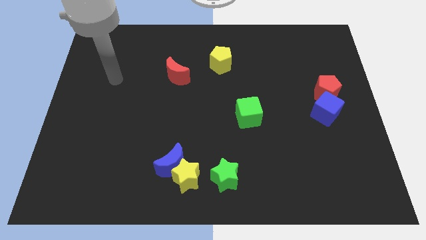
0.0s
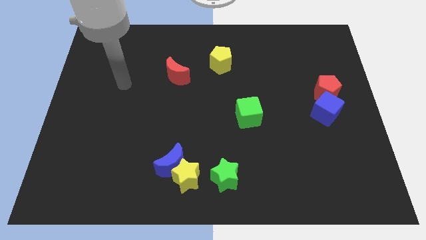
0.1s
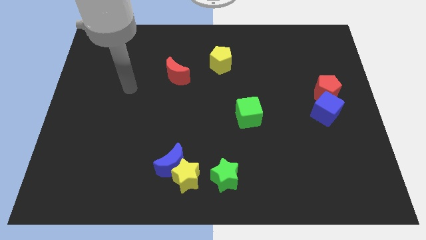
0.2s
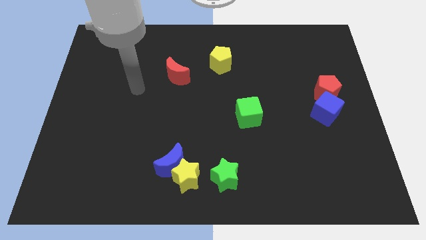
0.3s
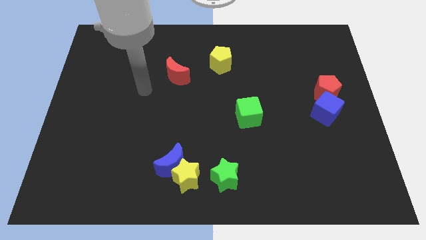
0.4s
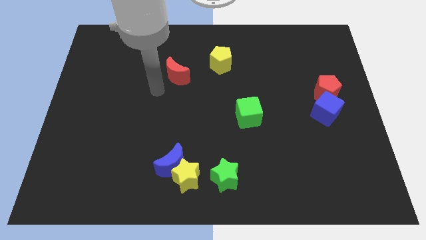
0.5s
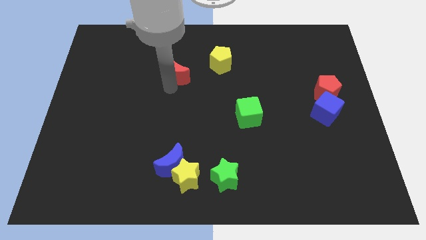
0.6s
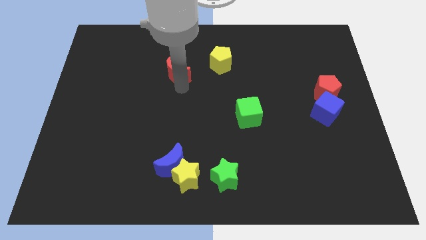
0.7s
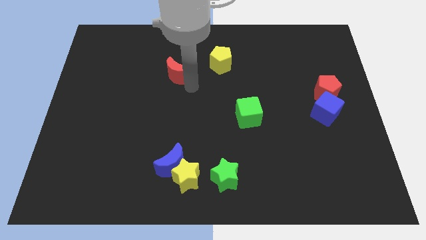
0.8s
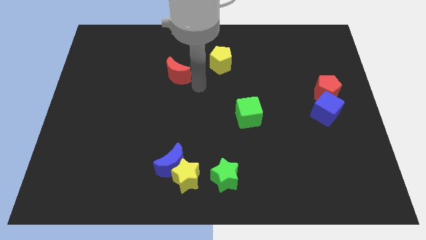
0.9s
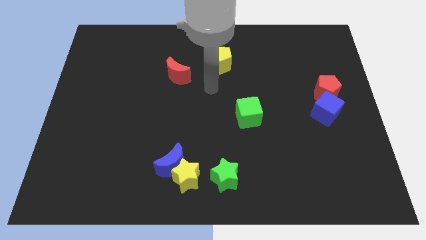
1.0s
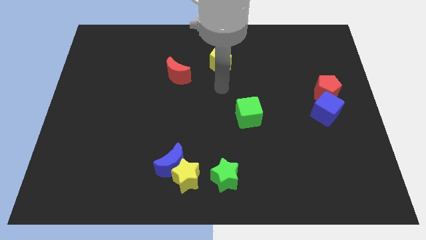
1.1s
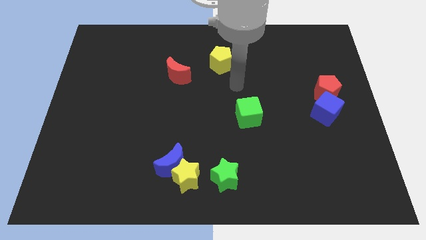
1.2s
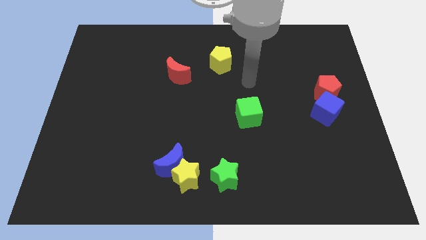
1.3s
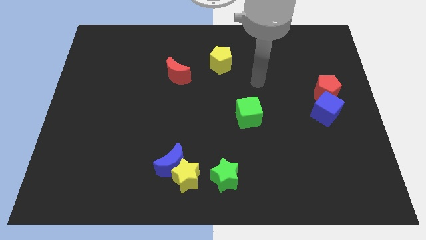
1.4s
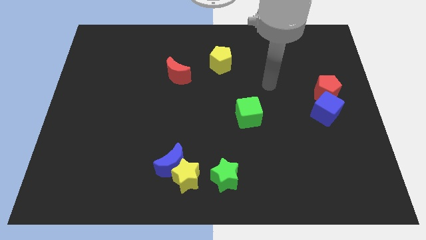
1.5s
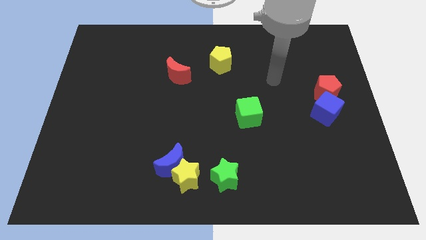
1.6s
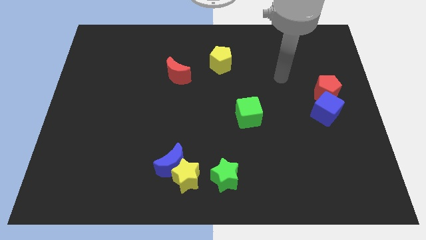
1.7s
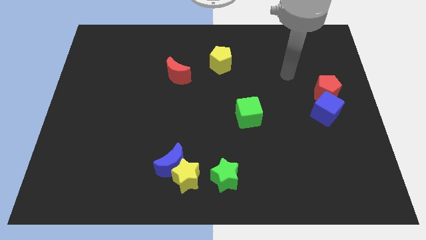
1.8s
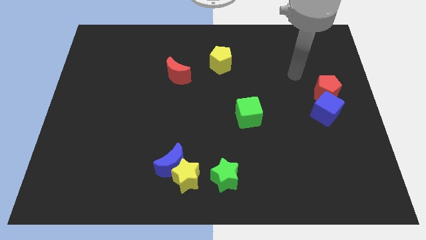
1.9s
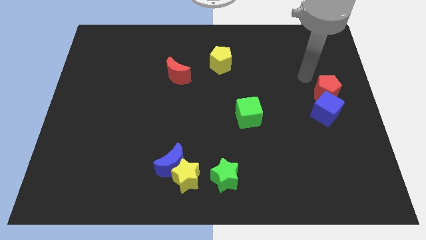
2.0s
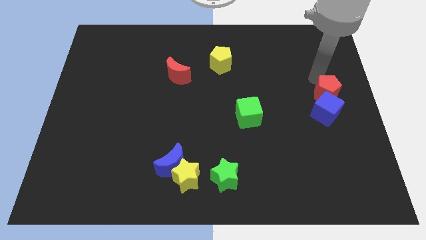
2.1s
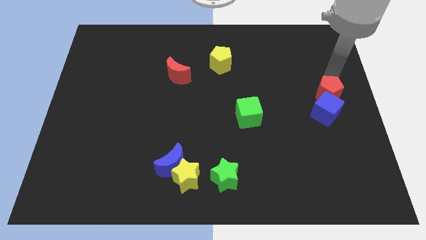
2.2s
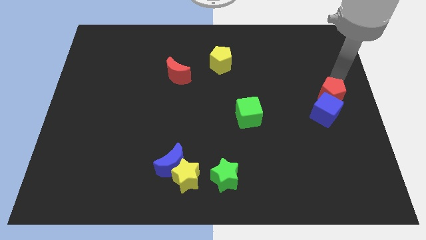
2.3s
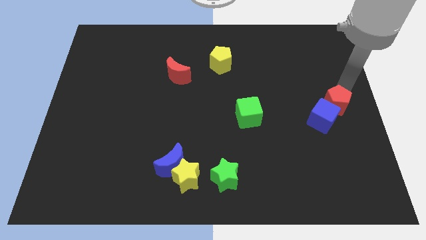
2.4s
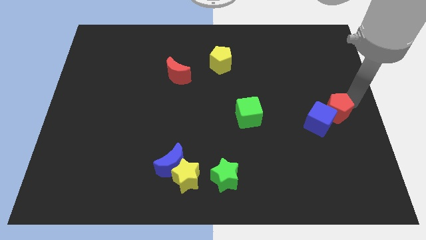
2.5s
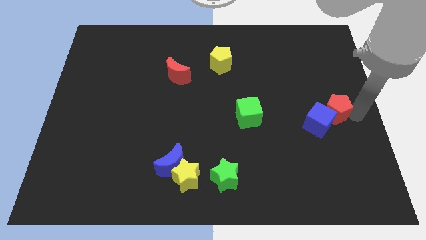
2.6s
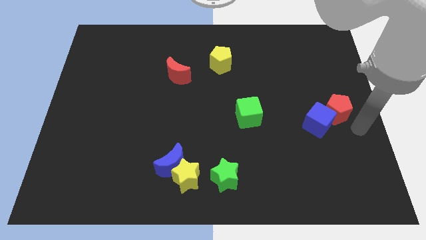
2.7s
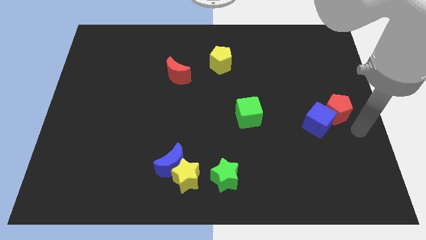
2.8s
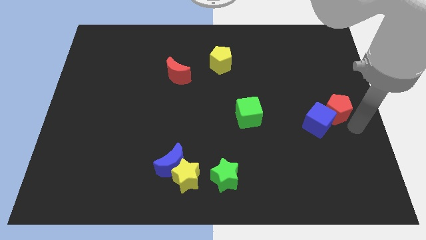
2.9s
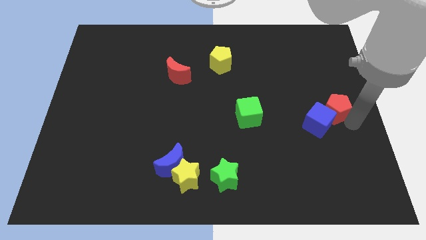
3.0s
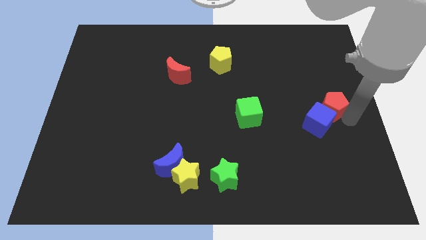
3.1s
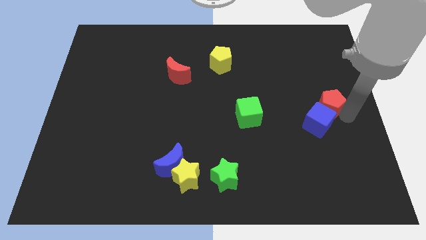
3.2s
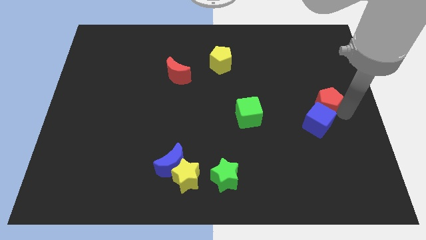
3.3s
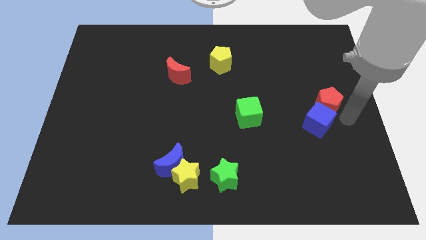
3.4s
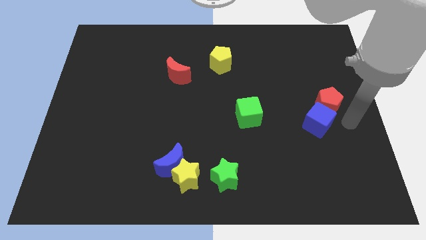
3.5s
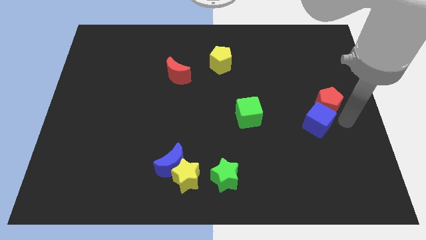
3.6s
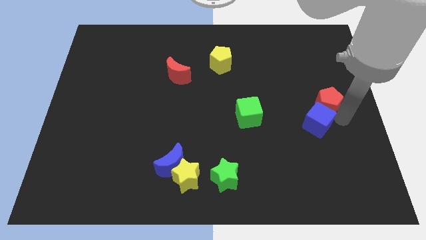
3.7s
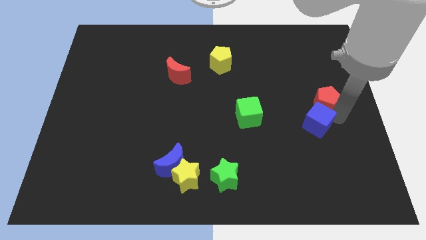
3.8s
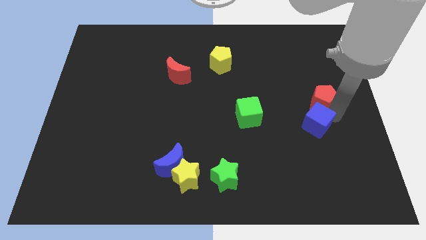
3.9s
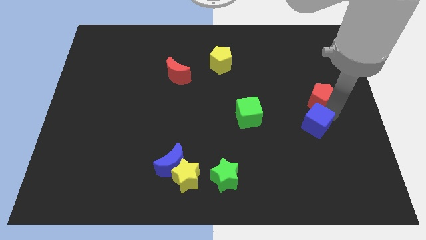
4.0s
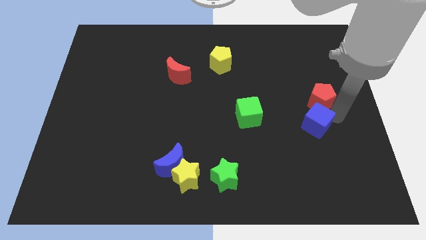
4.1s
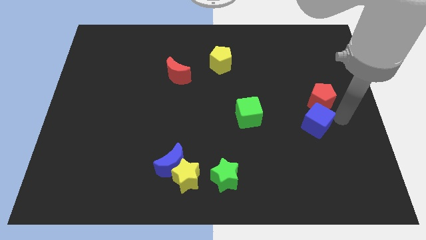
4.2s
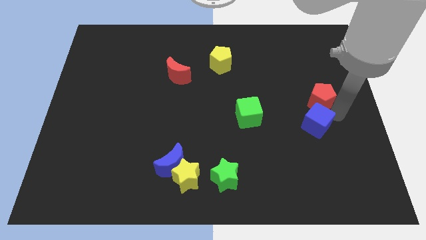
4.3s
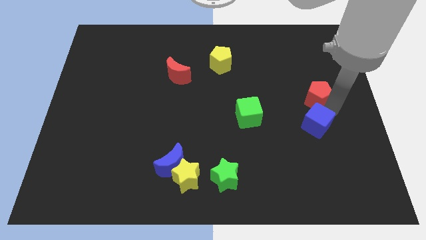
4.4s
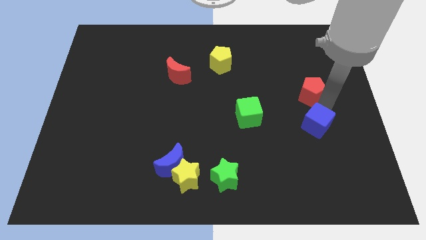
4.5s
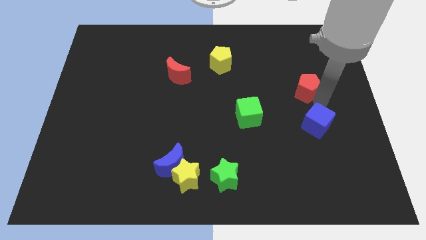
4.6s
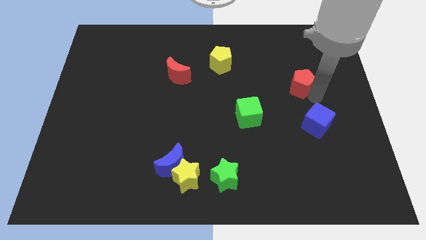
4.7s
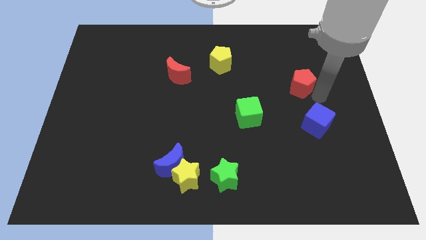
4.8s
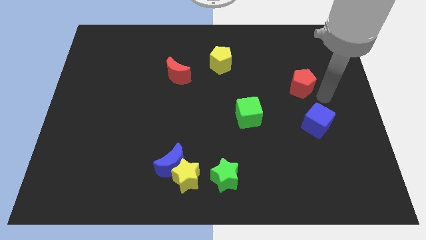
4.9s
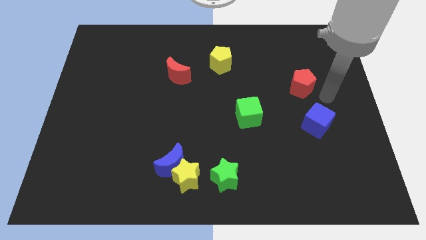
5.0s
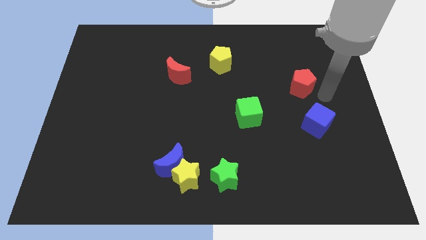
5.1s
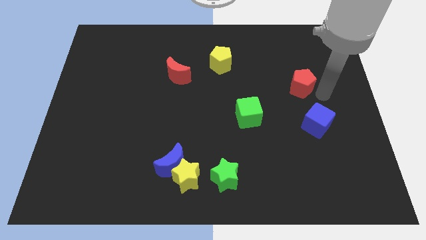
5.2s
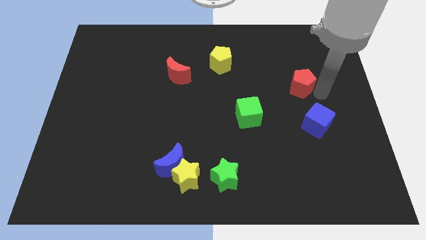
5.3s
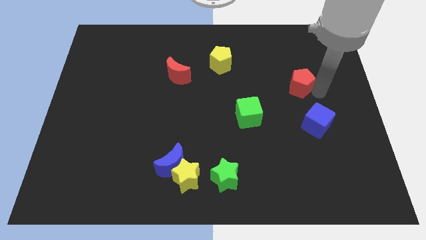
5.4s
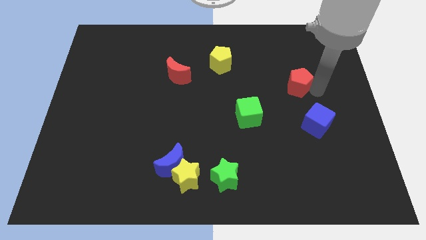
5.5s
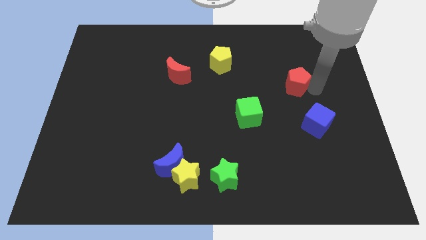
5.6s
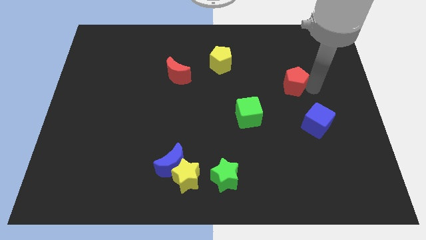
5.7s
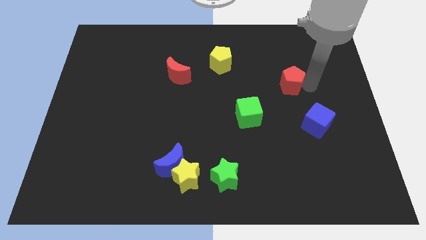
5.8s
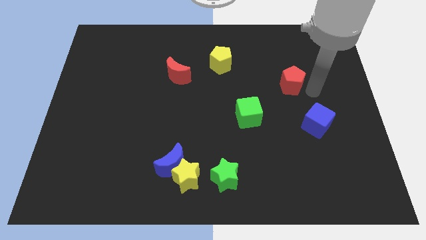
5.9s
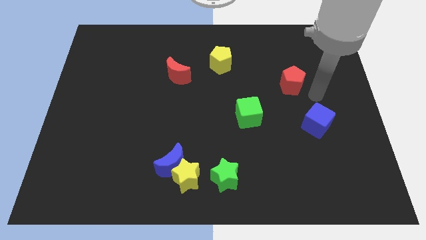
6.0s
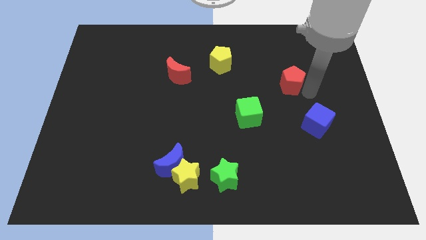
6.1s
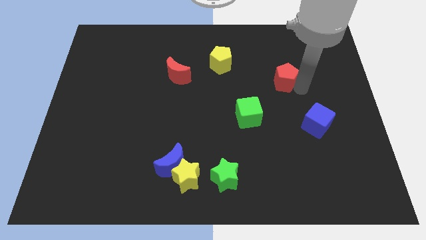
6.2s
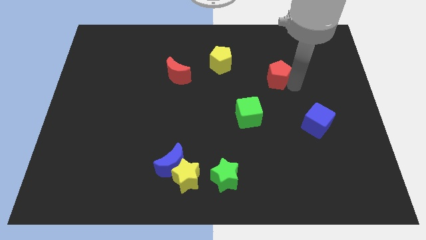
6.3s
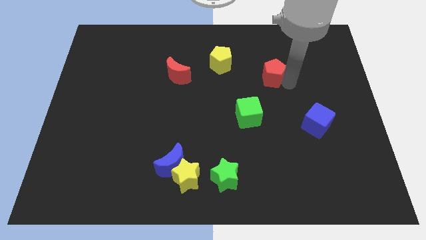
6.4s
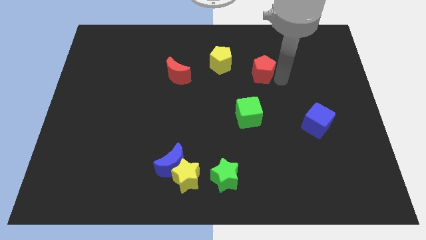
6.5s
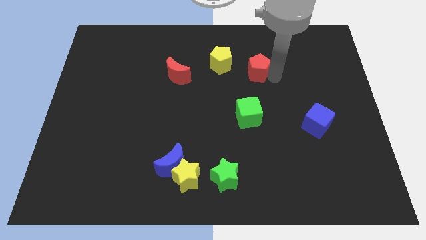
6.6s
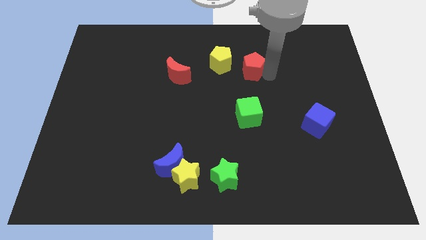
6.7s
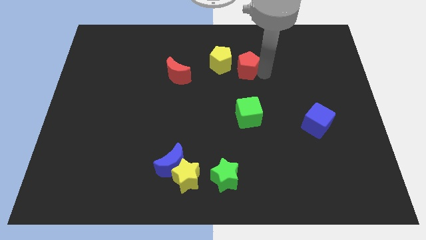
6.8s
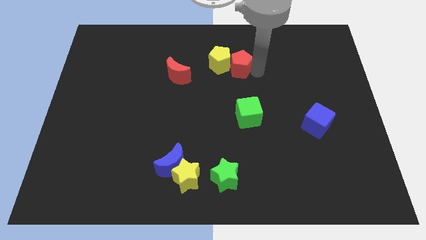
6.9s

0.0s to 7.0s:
put the red pentagon to the yellow pentagon
